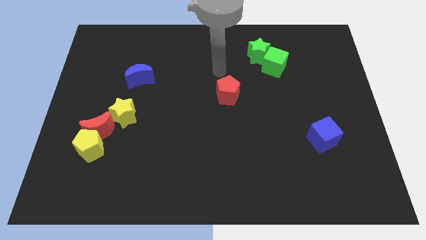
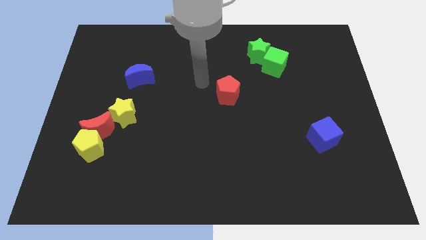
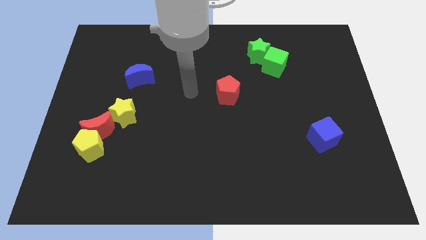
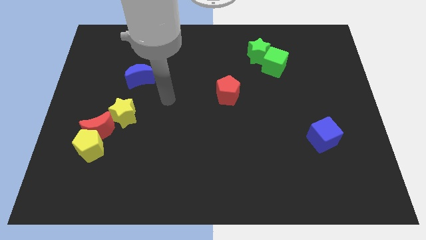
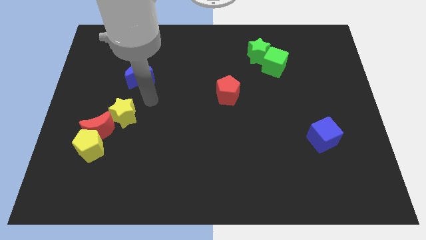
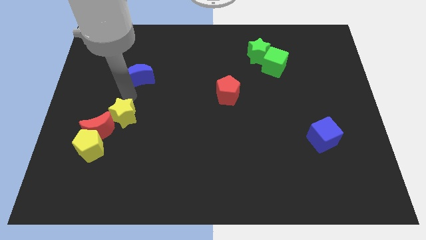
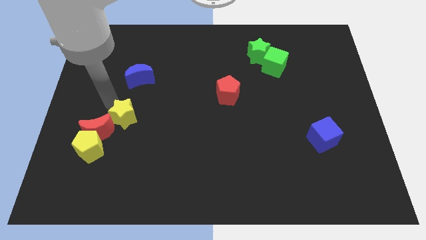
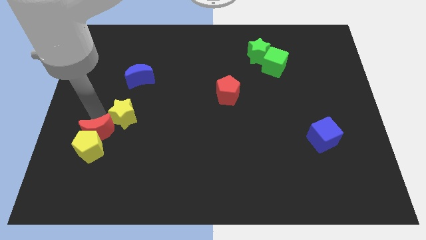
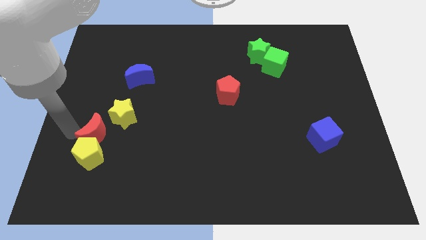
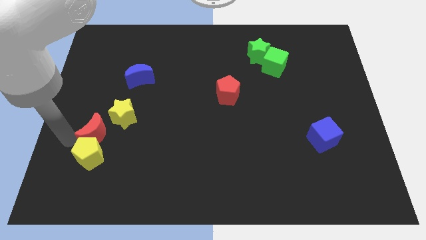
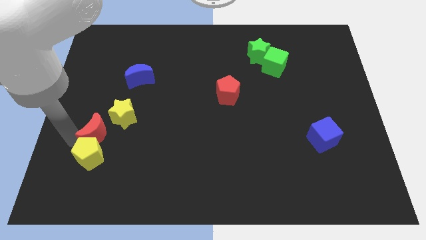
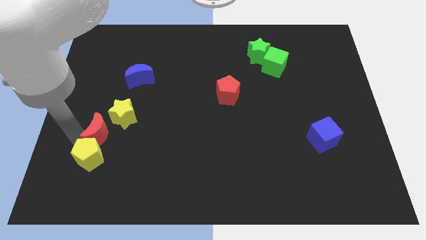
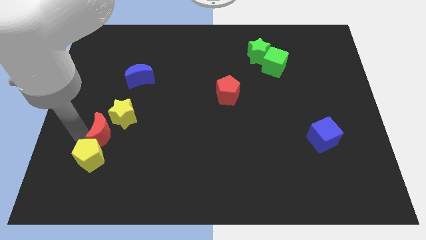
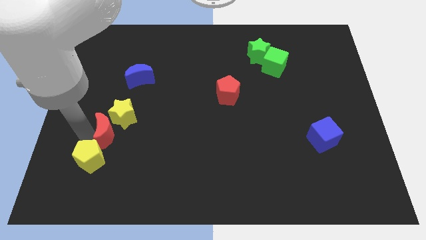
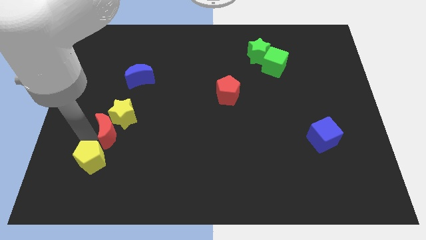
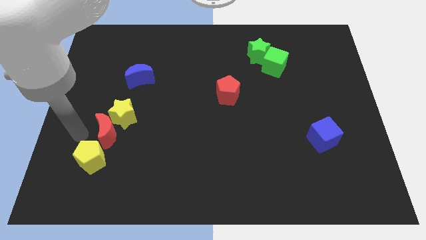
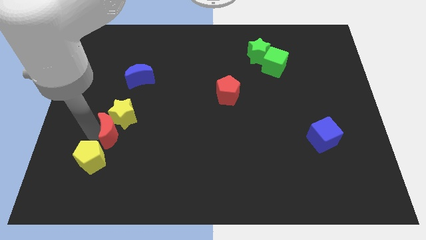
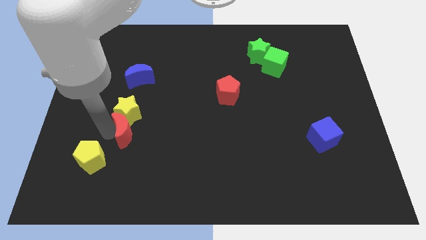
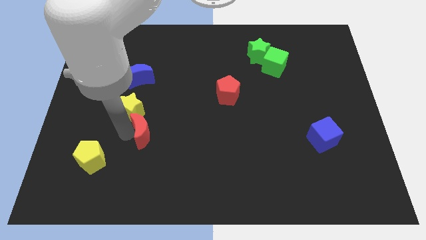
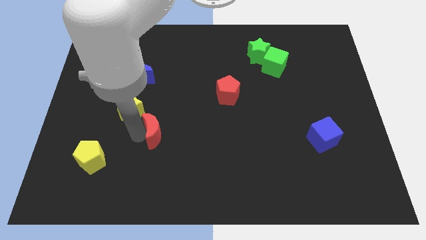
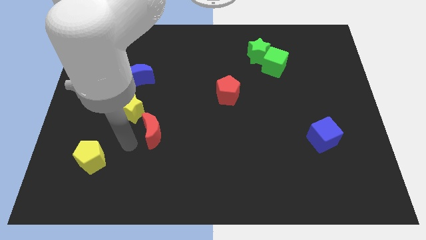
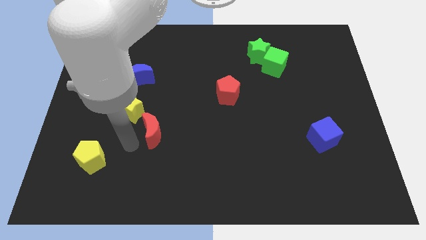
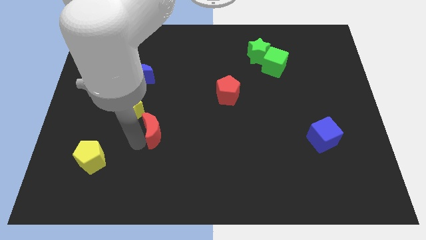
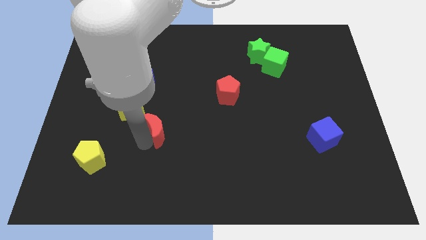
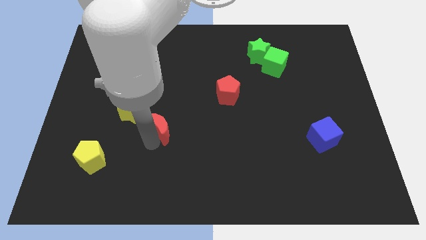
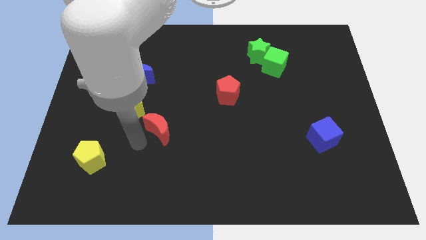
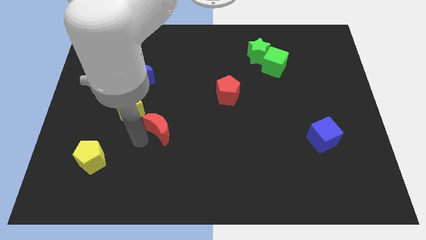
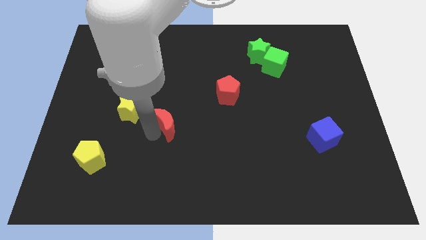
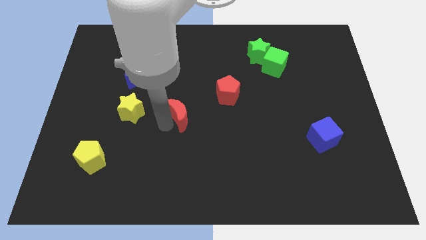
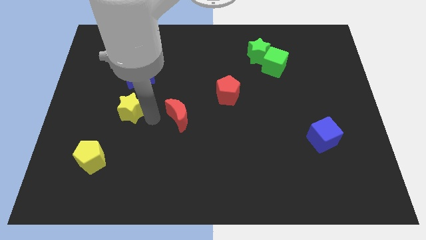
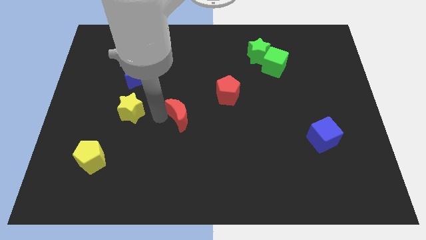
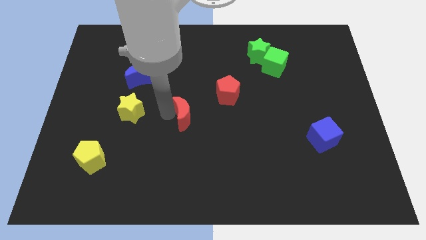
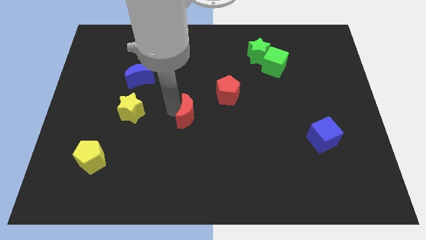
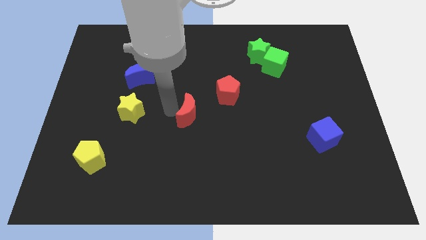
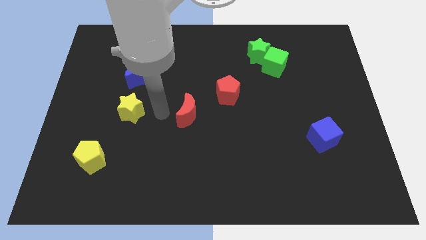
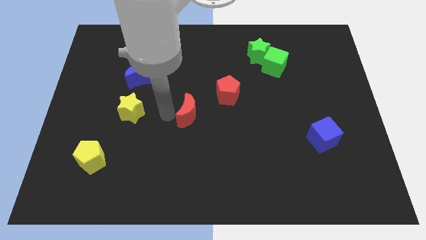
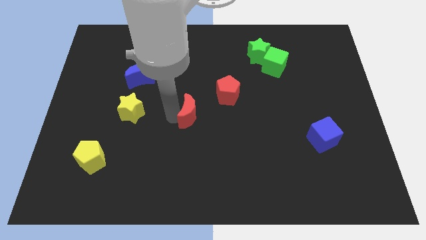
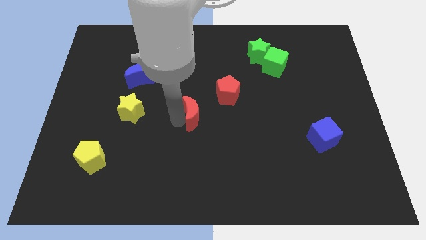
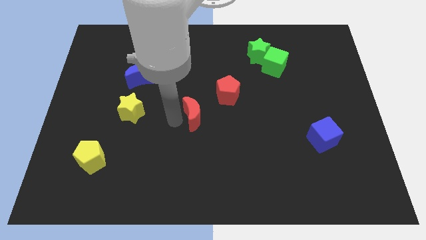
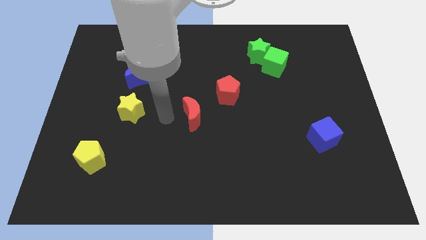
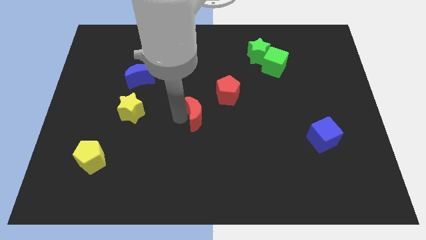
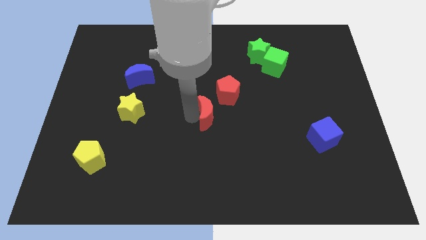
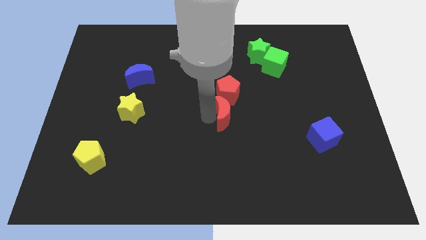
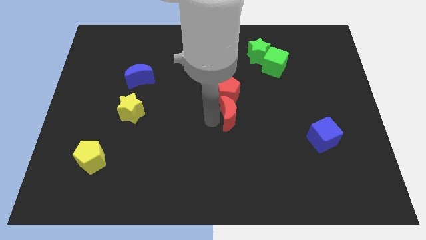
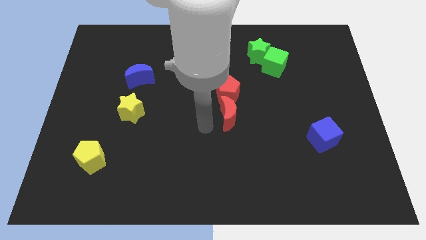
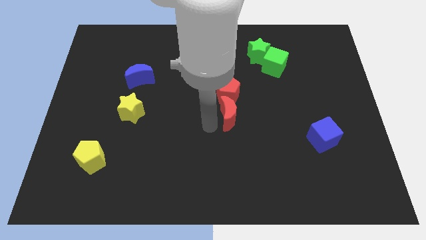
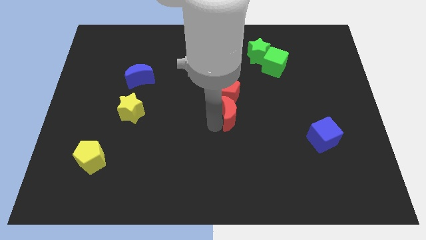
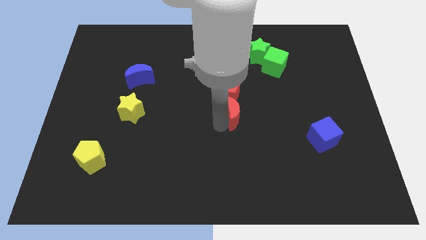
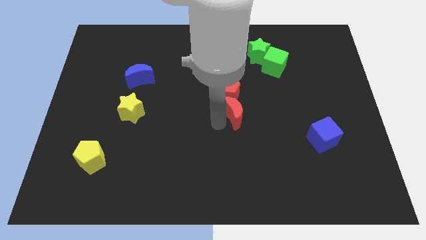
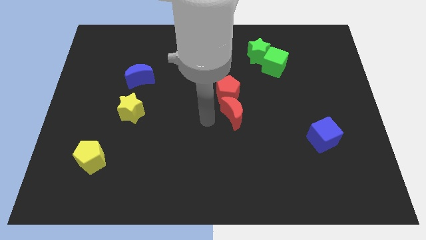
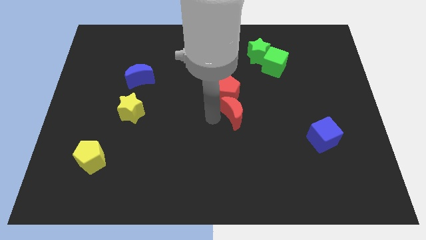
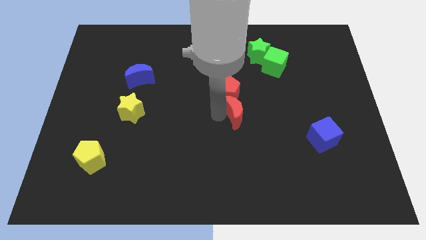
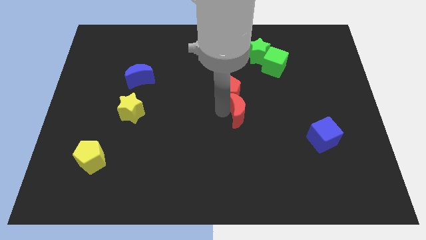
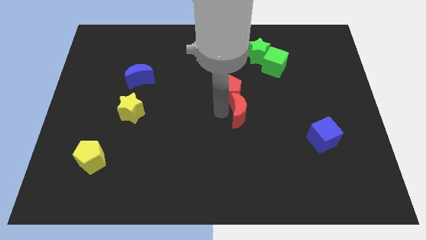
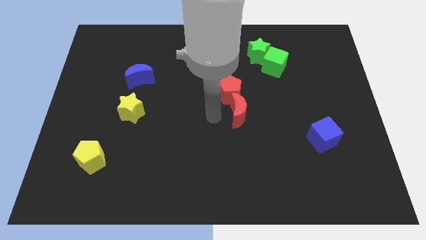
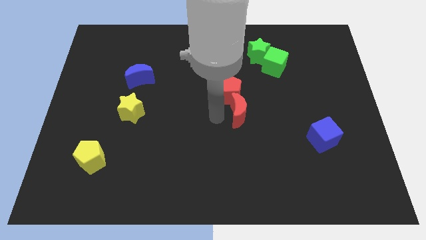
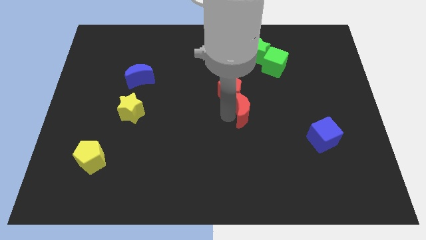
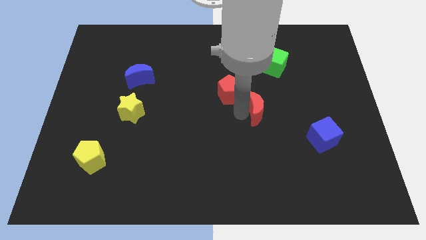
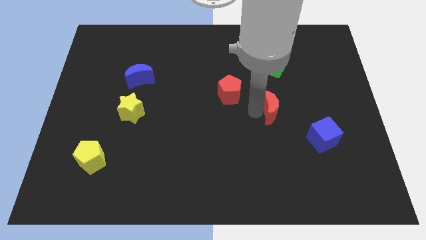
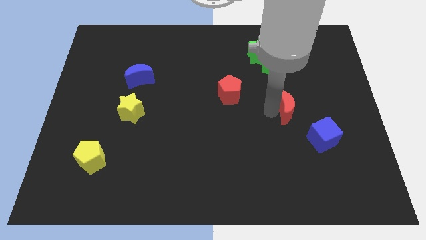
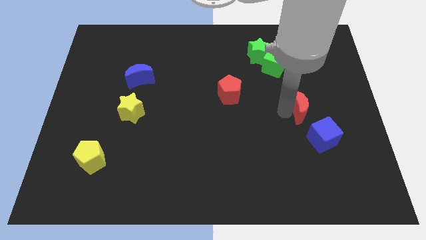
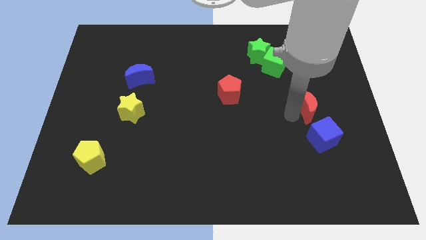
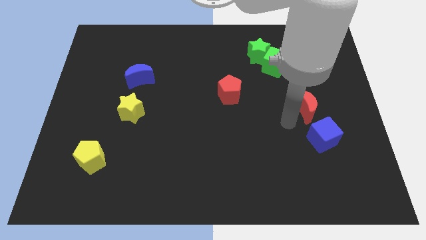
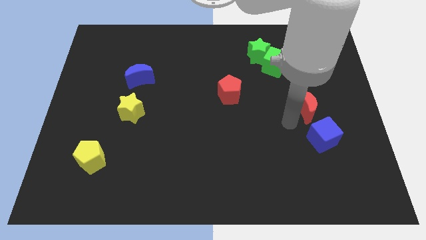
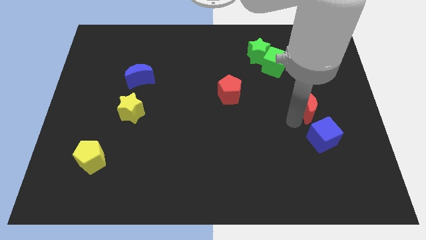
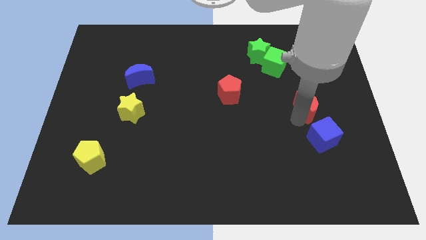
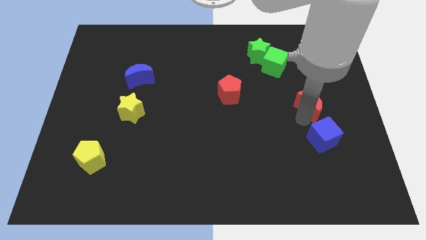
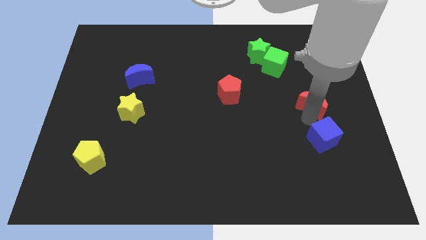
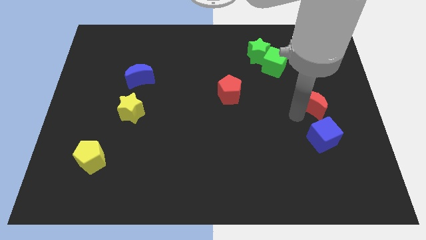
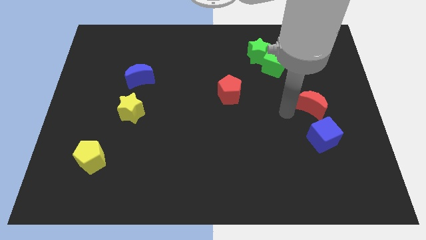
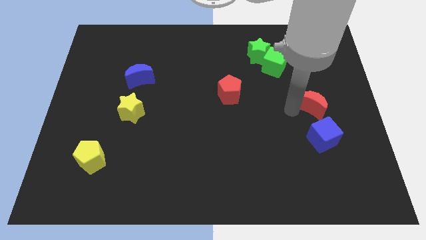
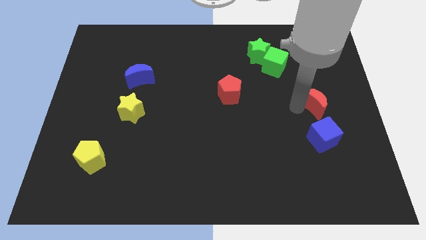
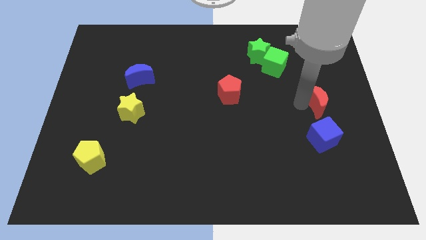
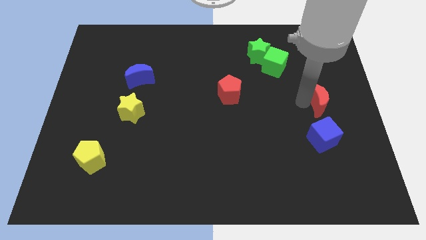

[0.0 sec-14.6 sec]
push the red moon to the right side
